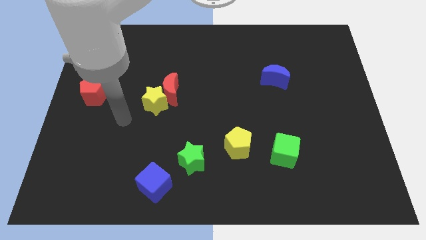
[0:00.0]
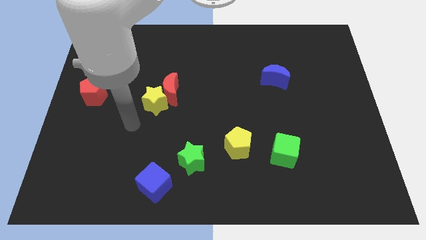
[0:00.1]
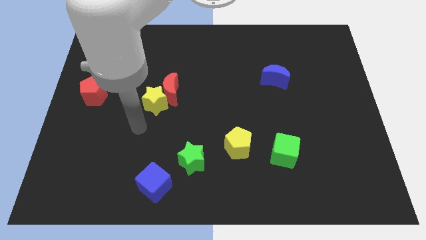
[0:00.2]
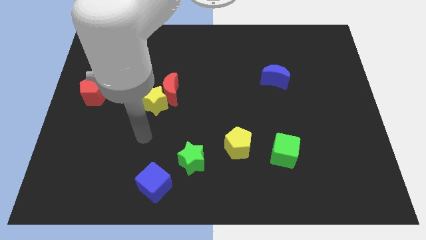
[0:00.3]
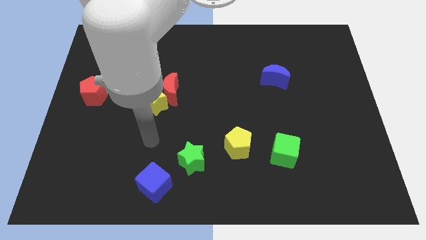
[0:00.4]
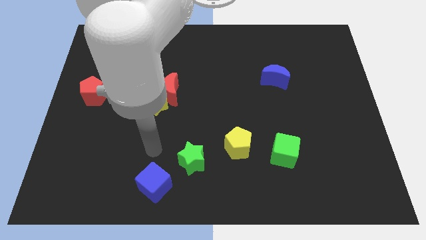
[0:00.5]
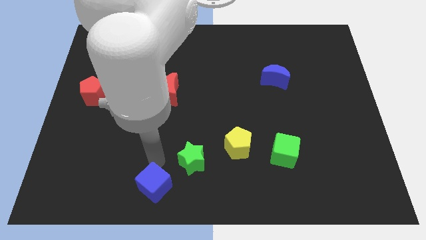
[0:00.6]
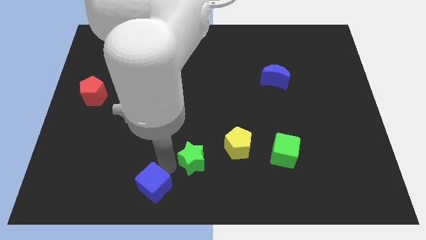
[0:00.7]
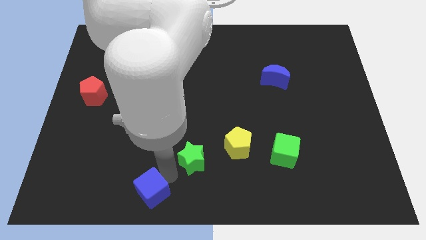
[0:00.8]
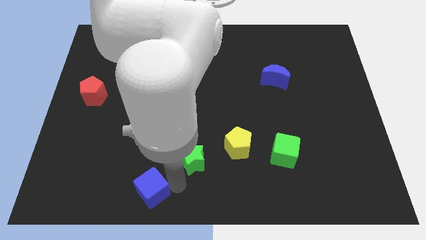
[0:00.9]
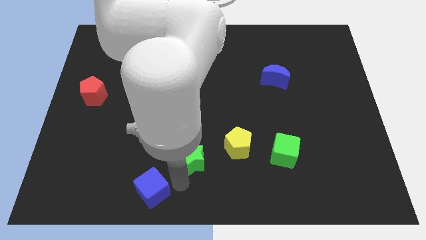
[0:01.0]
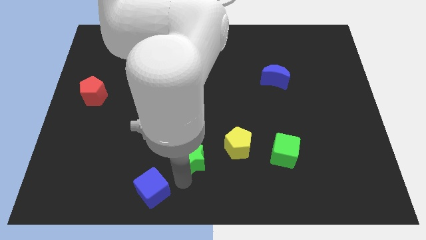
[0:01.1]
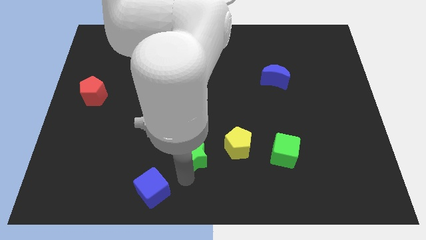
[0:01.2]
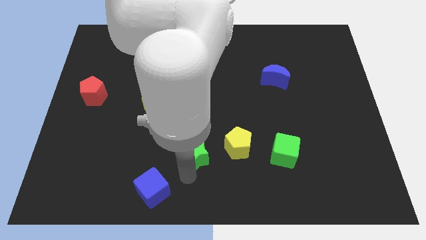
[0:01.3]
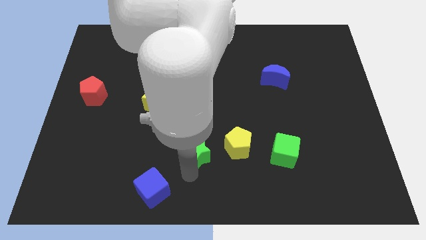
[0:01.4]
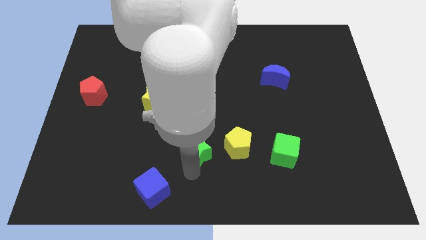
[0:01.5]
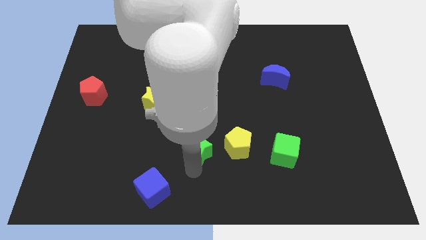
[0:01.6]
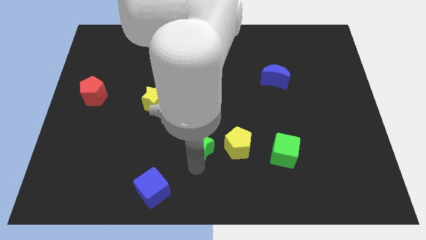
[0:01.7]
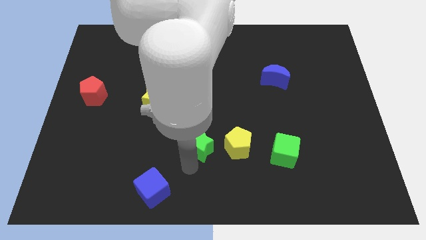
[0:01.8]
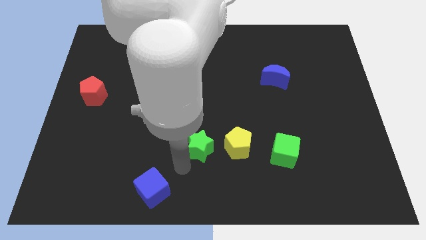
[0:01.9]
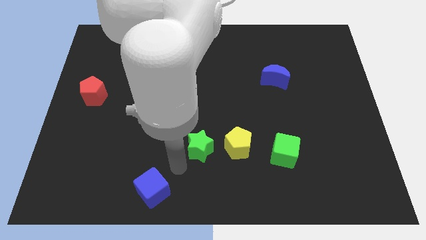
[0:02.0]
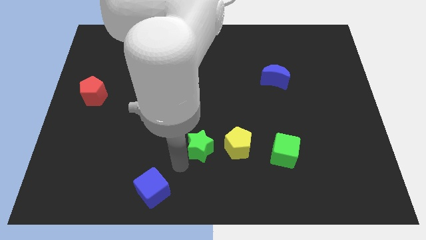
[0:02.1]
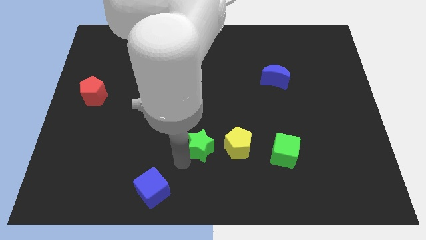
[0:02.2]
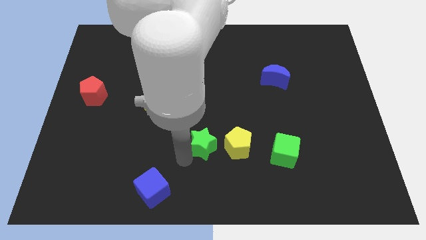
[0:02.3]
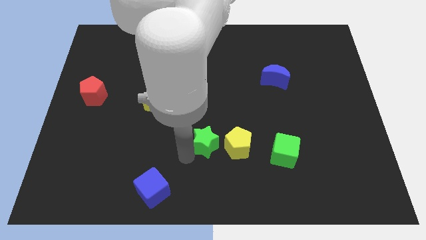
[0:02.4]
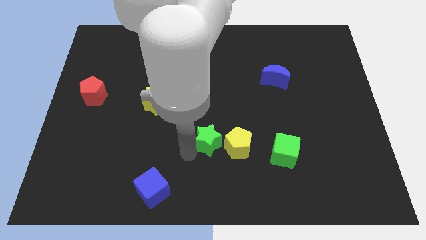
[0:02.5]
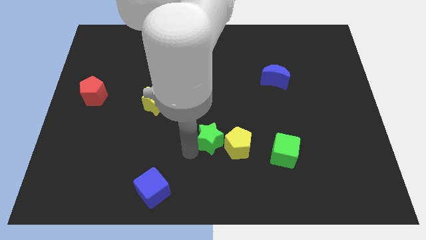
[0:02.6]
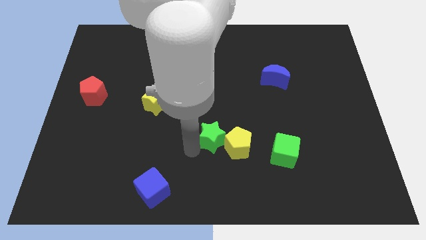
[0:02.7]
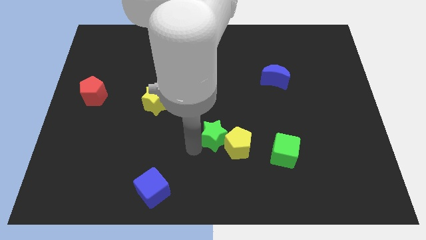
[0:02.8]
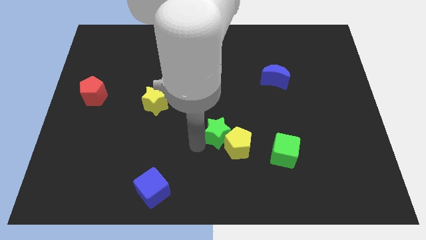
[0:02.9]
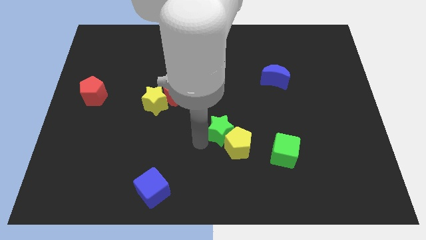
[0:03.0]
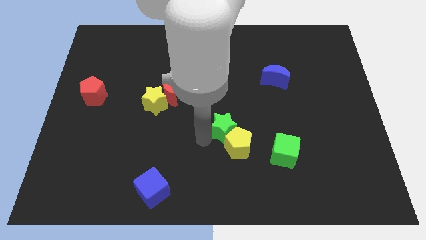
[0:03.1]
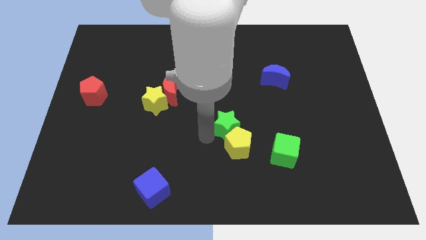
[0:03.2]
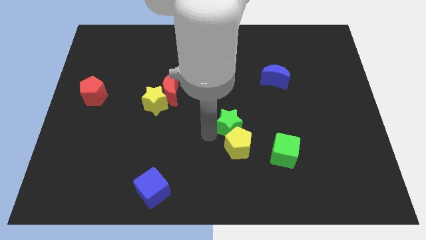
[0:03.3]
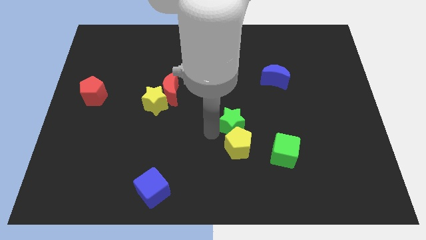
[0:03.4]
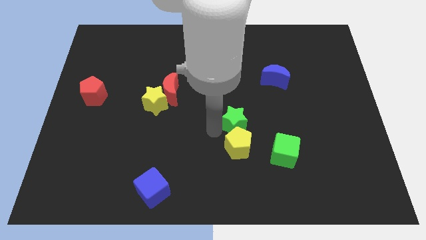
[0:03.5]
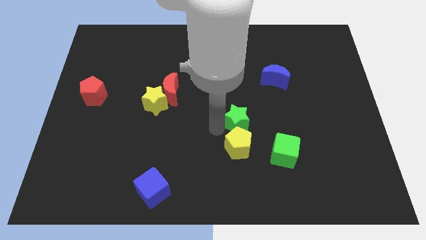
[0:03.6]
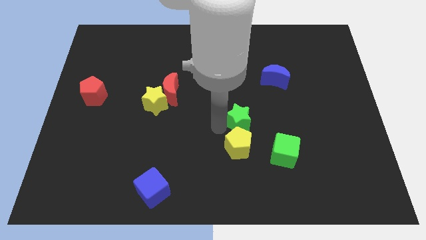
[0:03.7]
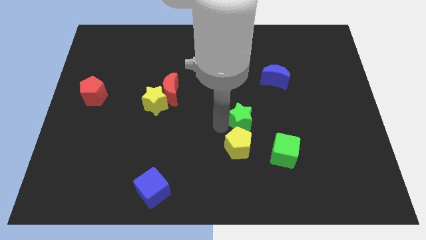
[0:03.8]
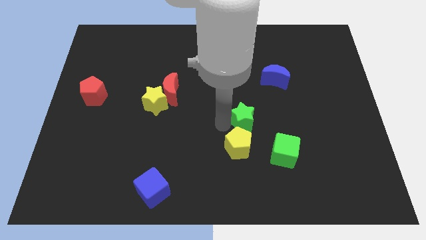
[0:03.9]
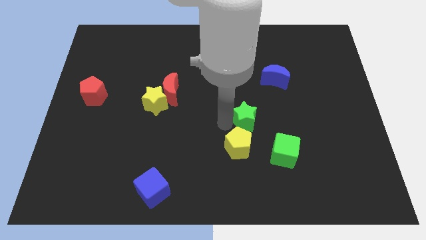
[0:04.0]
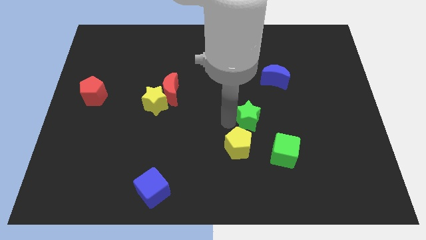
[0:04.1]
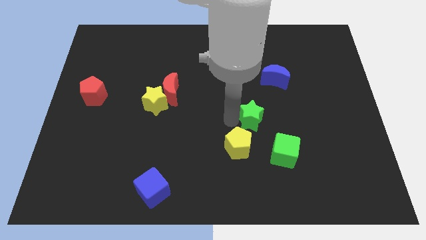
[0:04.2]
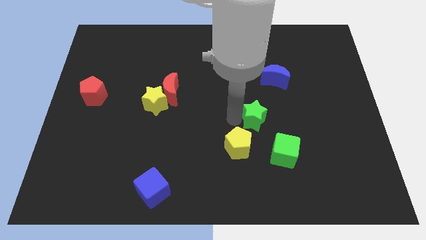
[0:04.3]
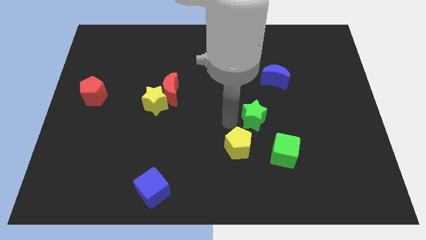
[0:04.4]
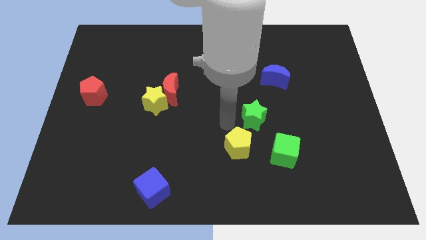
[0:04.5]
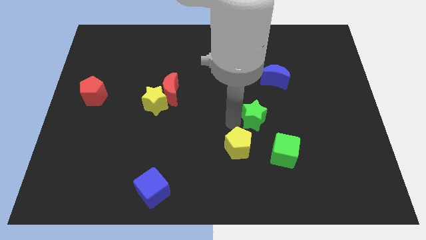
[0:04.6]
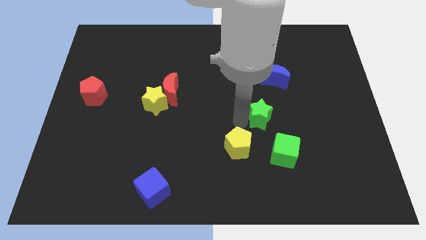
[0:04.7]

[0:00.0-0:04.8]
push the green star to the top side of the green cube

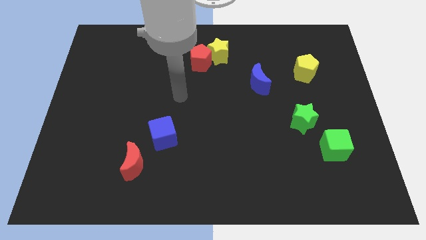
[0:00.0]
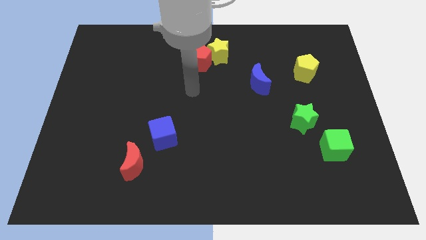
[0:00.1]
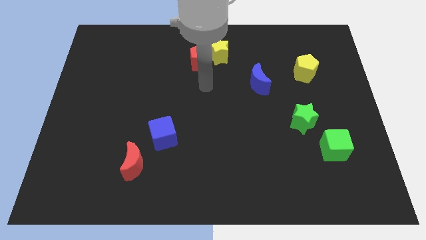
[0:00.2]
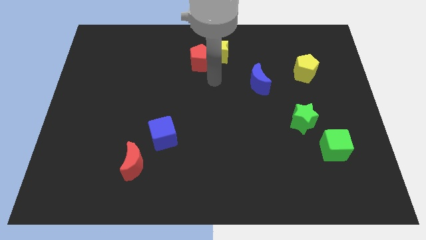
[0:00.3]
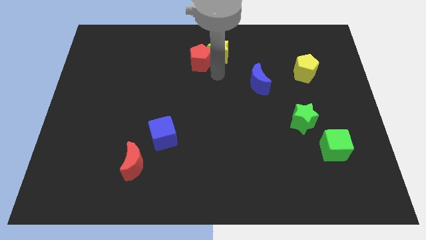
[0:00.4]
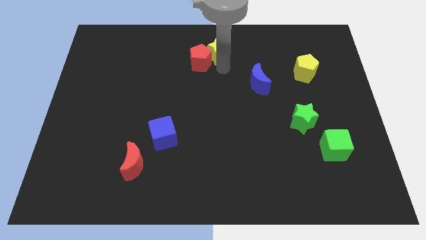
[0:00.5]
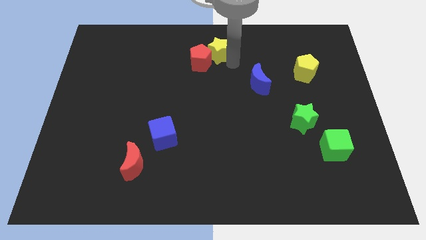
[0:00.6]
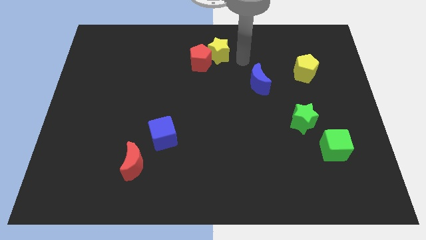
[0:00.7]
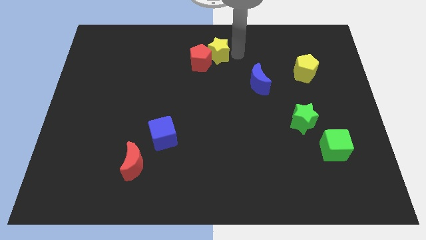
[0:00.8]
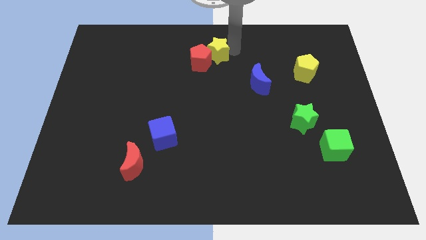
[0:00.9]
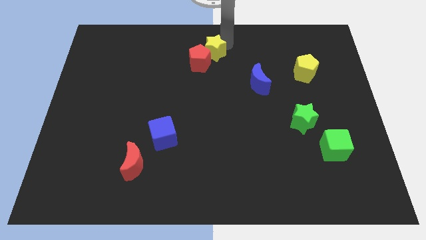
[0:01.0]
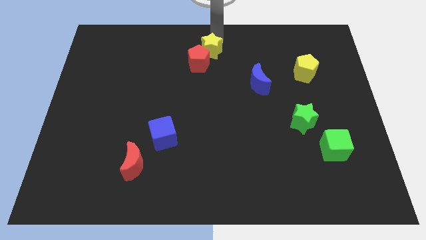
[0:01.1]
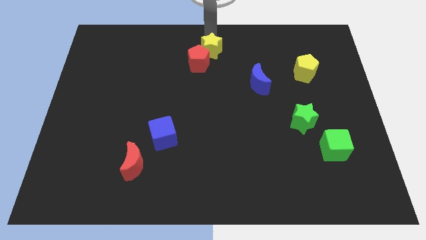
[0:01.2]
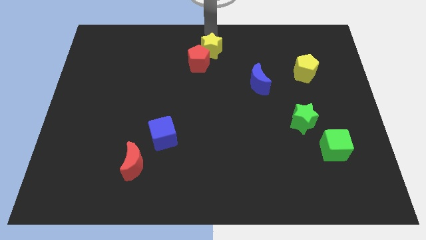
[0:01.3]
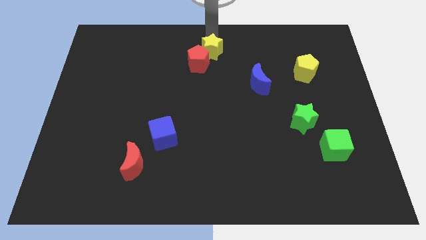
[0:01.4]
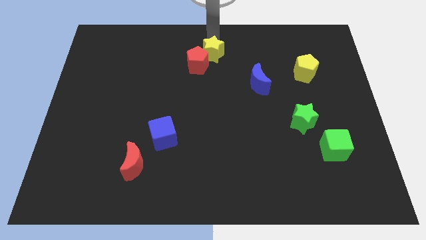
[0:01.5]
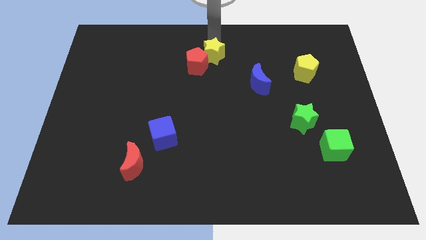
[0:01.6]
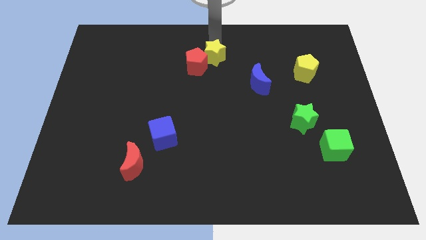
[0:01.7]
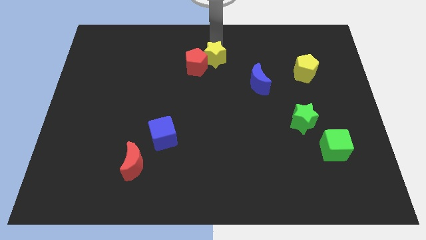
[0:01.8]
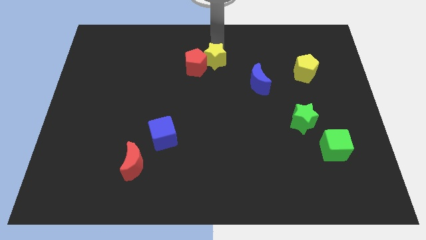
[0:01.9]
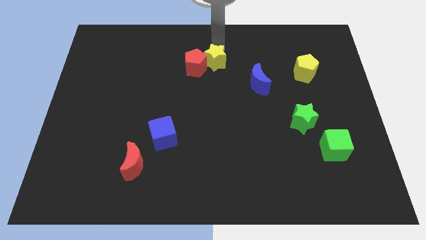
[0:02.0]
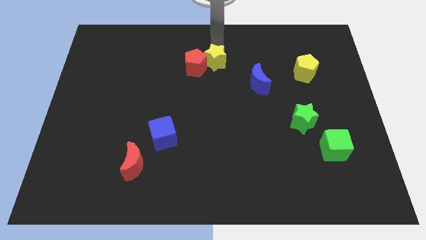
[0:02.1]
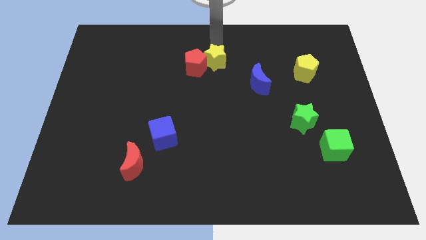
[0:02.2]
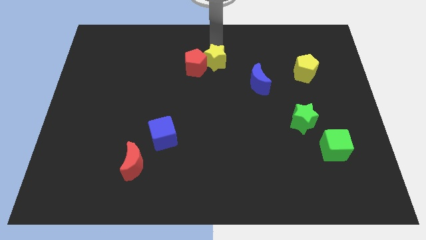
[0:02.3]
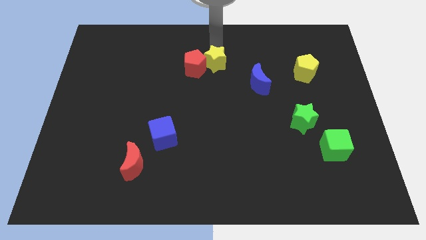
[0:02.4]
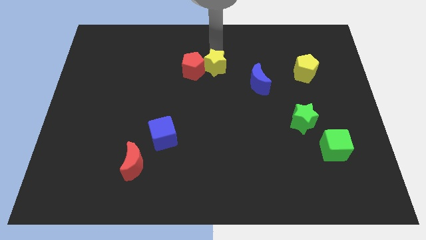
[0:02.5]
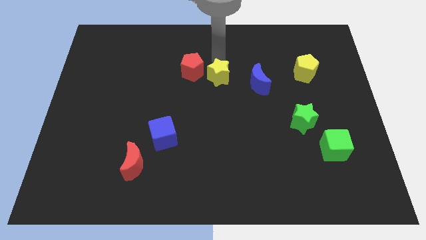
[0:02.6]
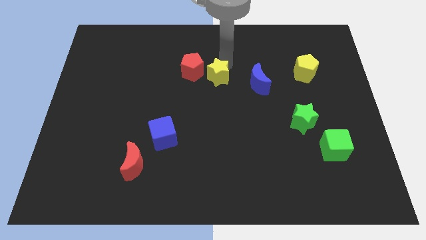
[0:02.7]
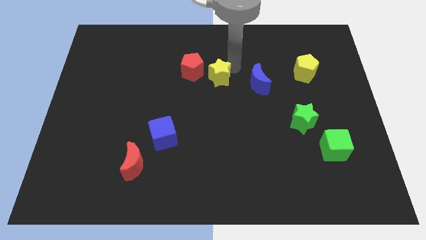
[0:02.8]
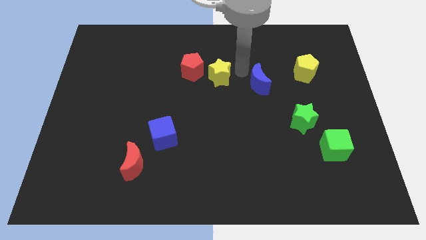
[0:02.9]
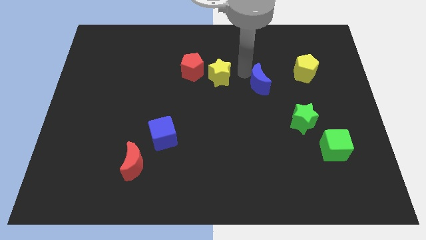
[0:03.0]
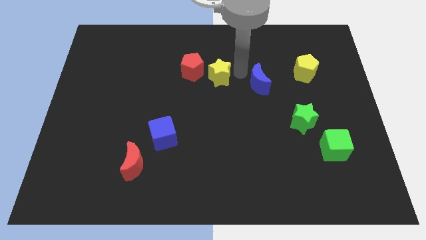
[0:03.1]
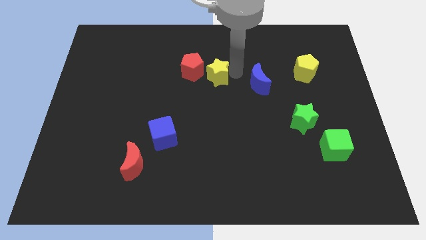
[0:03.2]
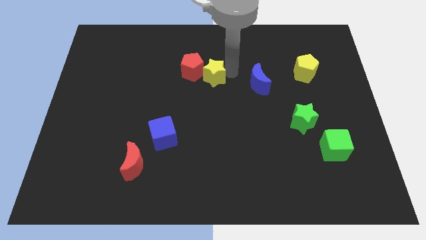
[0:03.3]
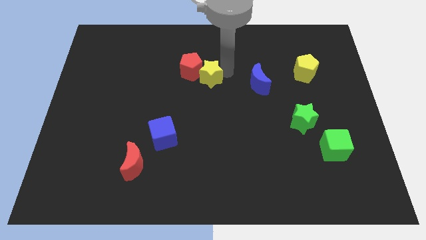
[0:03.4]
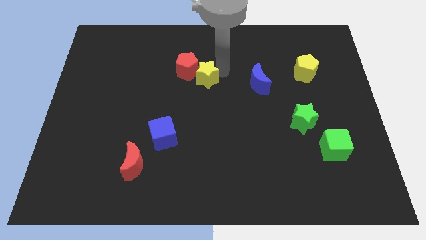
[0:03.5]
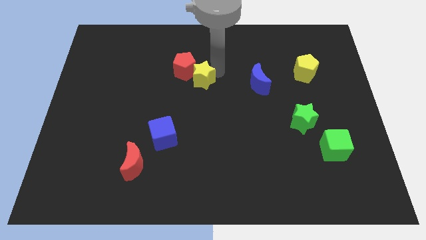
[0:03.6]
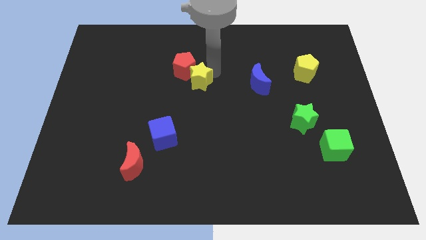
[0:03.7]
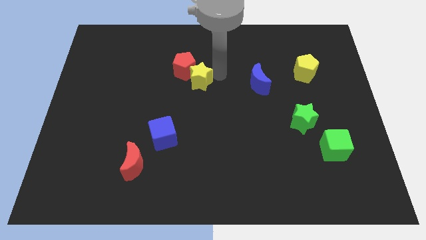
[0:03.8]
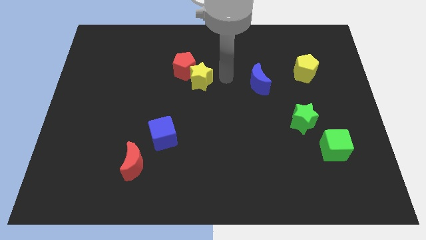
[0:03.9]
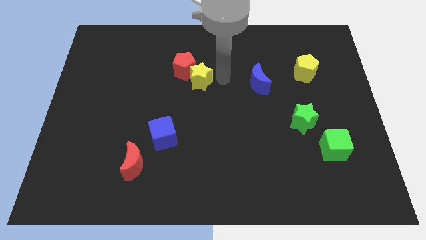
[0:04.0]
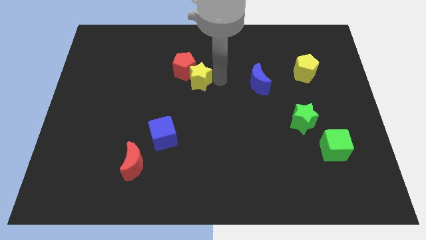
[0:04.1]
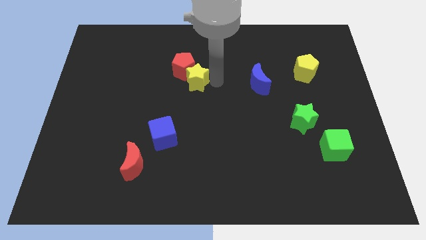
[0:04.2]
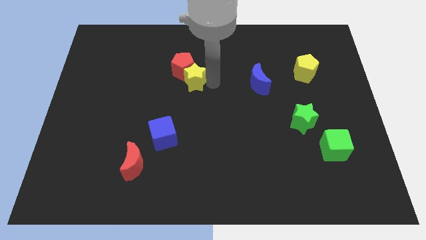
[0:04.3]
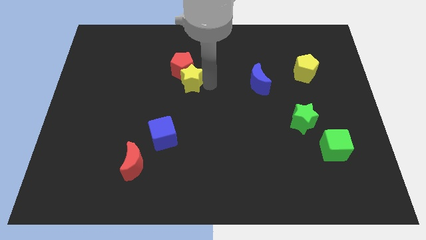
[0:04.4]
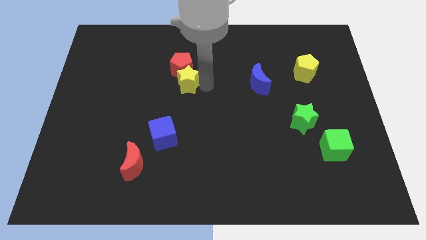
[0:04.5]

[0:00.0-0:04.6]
put the yellow star to the bottom left side of the red pentagon
